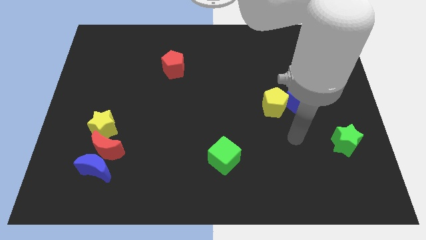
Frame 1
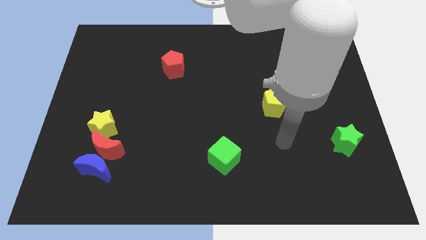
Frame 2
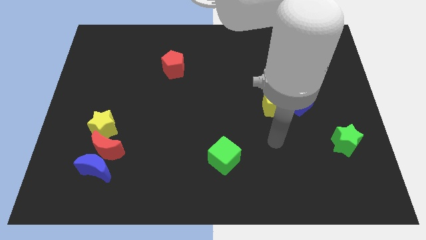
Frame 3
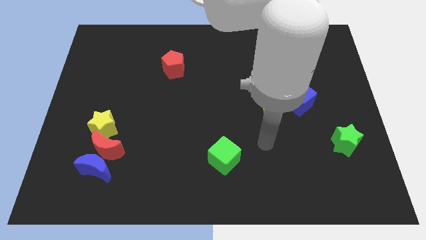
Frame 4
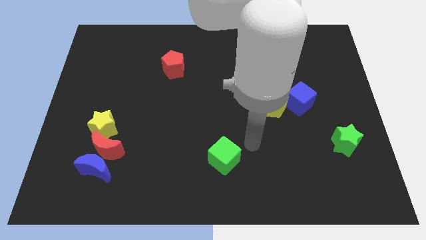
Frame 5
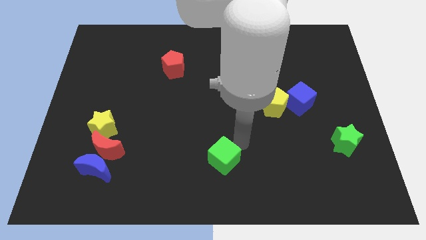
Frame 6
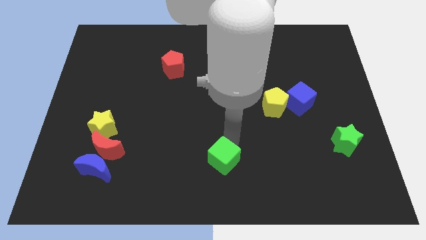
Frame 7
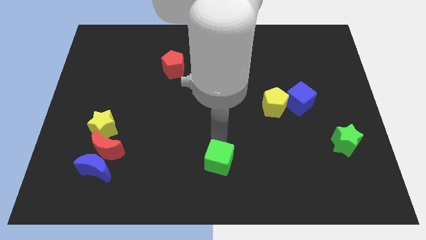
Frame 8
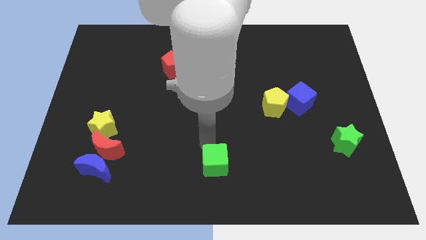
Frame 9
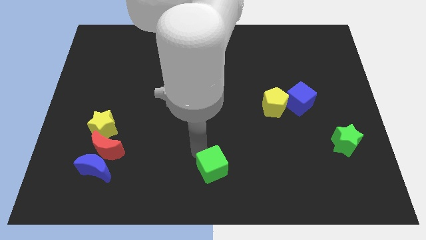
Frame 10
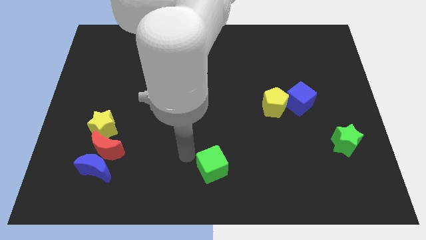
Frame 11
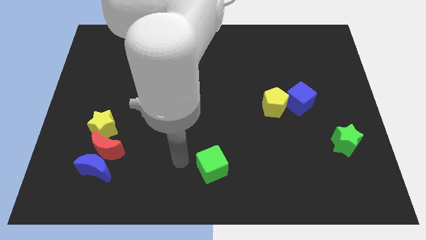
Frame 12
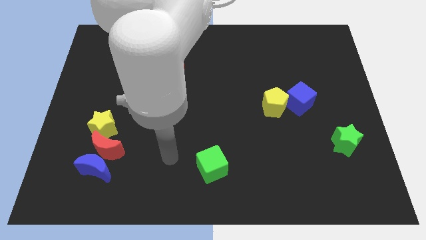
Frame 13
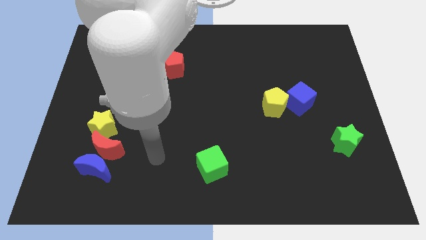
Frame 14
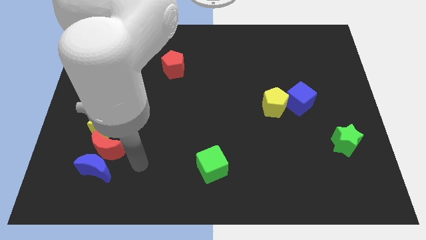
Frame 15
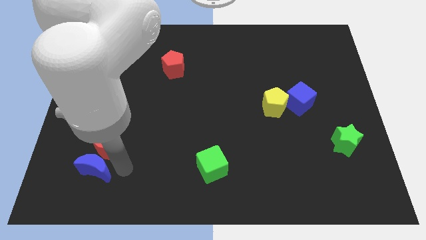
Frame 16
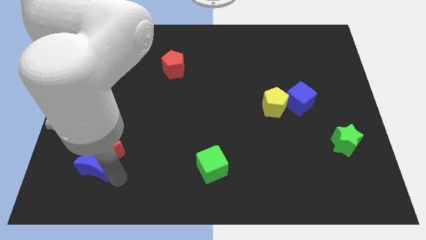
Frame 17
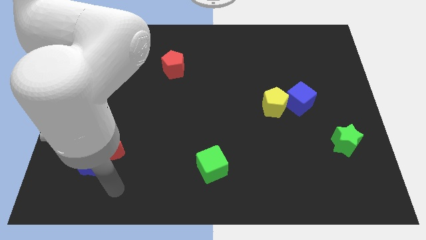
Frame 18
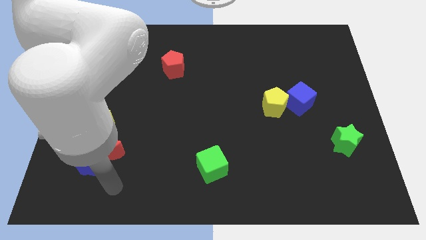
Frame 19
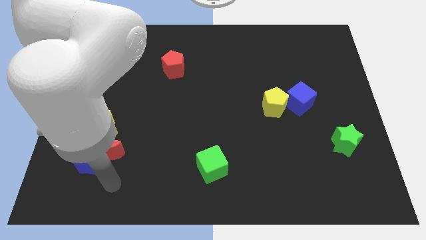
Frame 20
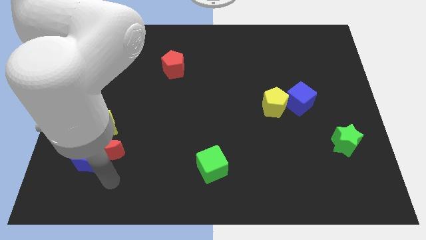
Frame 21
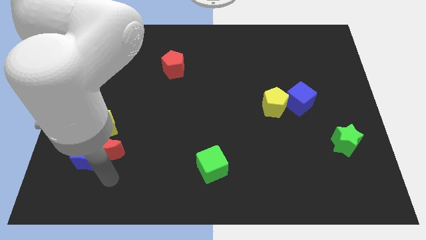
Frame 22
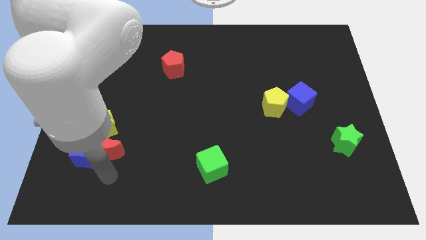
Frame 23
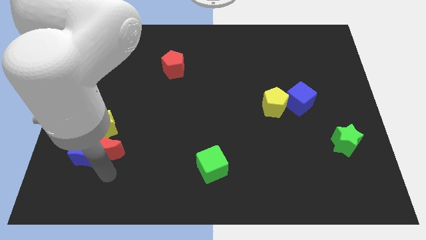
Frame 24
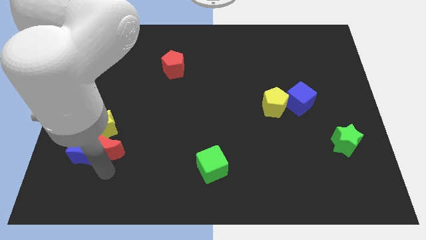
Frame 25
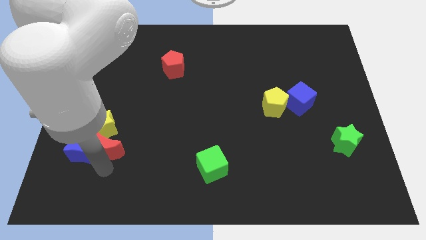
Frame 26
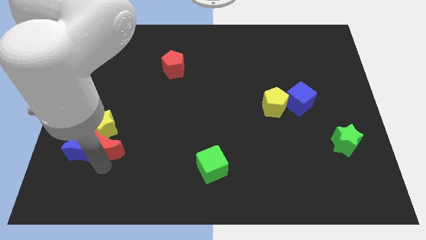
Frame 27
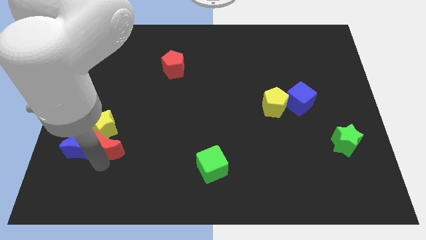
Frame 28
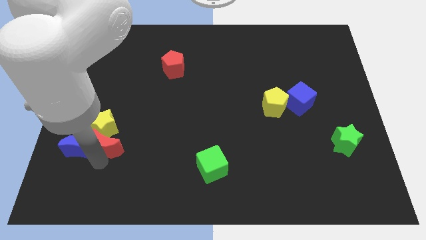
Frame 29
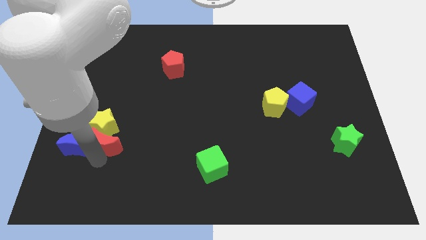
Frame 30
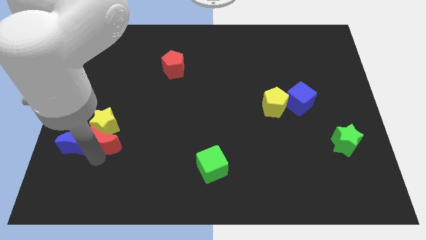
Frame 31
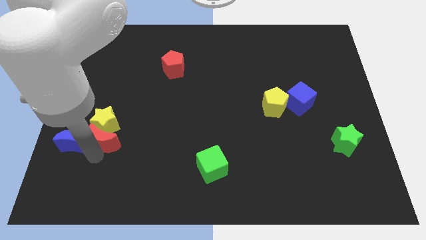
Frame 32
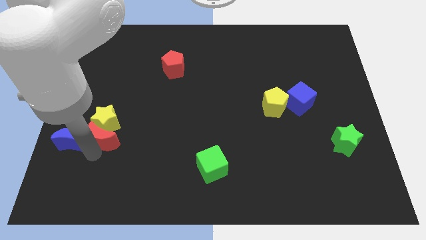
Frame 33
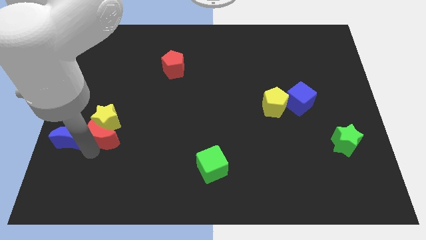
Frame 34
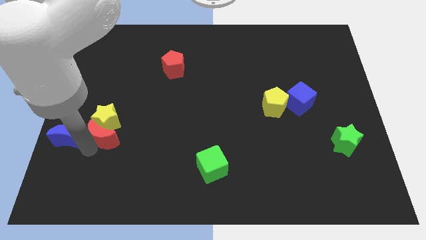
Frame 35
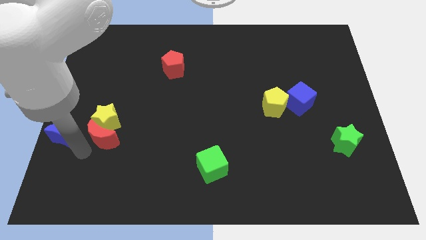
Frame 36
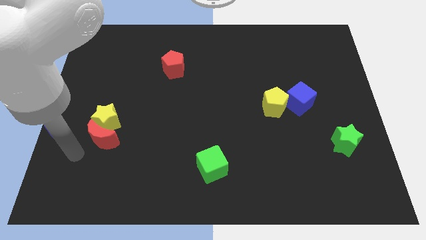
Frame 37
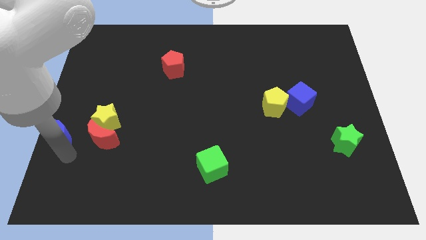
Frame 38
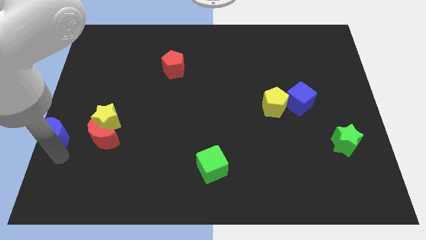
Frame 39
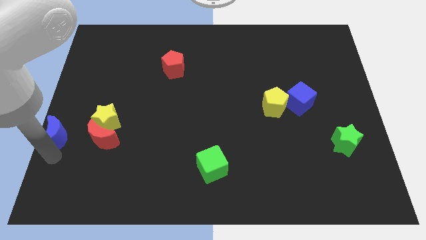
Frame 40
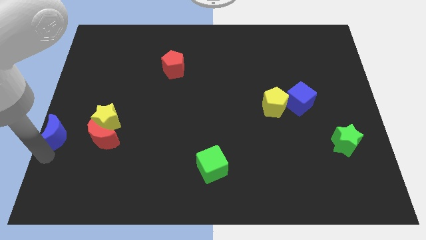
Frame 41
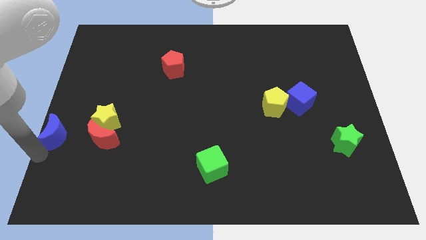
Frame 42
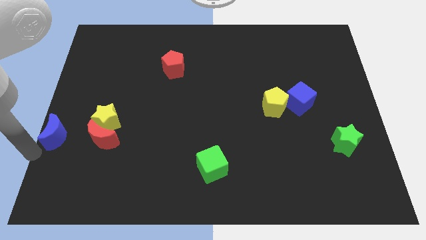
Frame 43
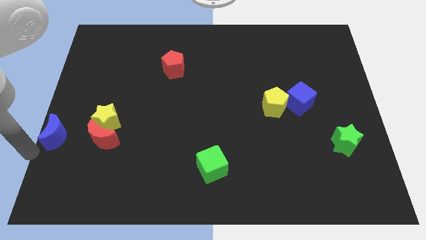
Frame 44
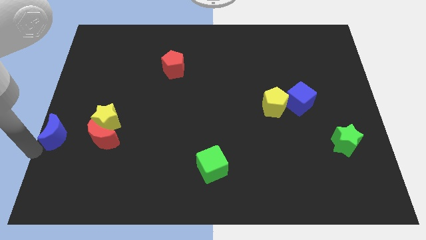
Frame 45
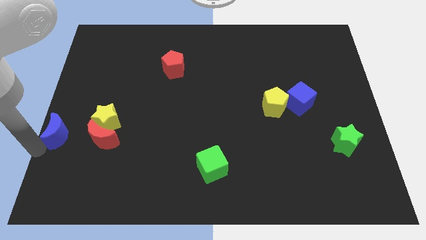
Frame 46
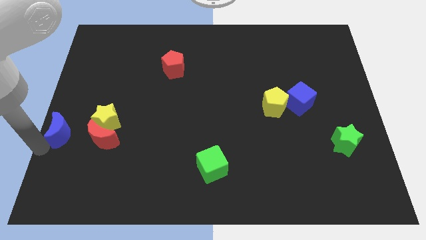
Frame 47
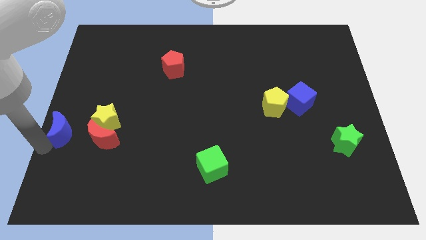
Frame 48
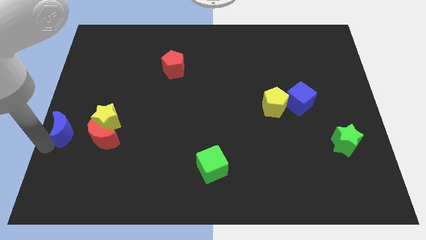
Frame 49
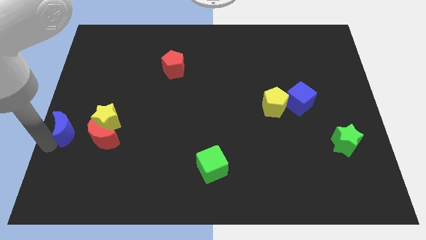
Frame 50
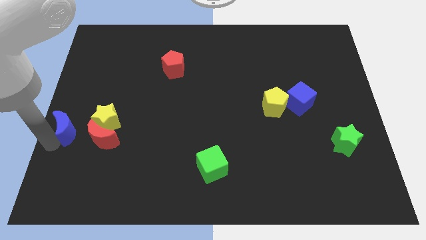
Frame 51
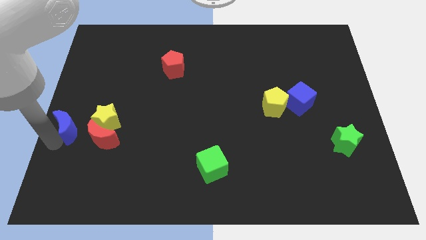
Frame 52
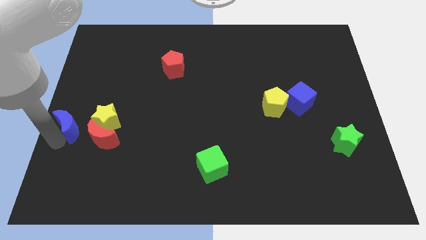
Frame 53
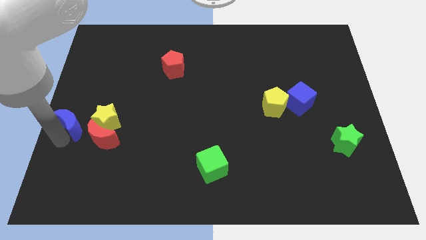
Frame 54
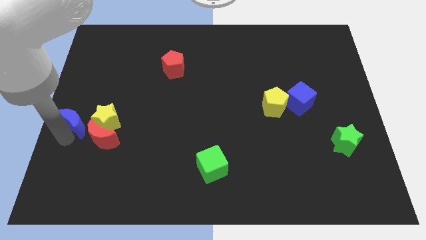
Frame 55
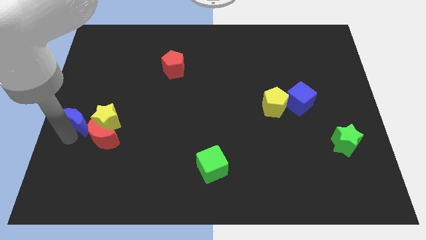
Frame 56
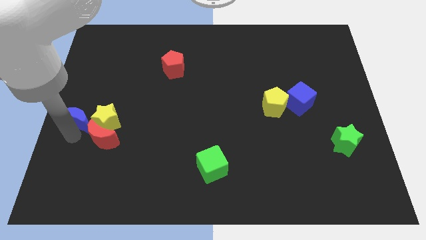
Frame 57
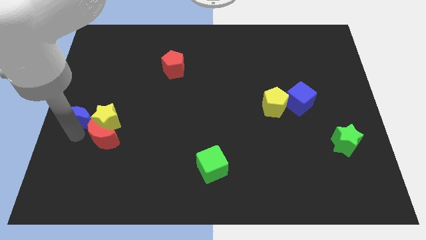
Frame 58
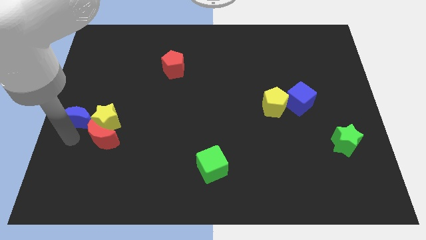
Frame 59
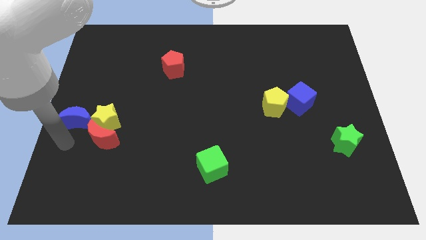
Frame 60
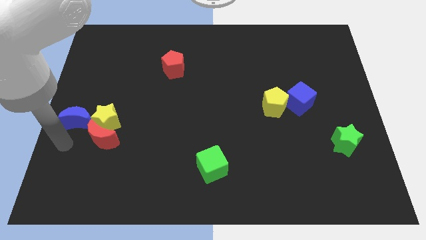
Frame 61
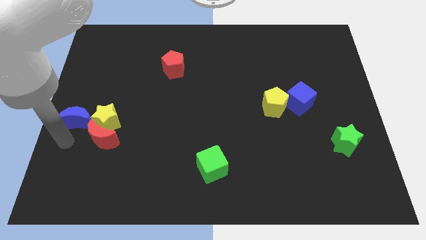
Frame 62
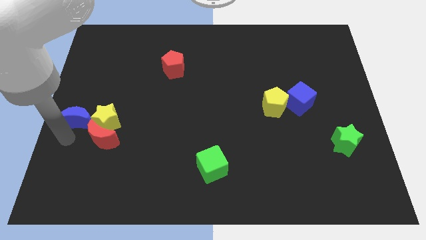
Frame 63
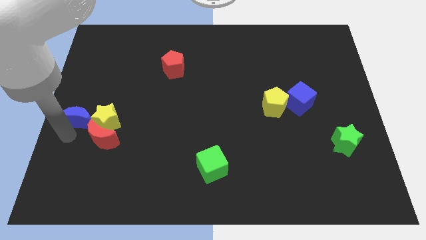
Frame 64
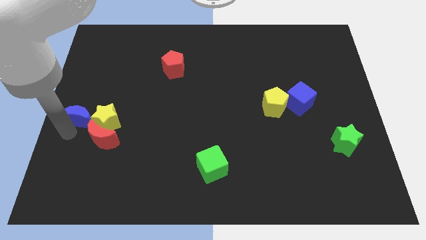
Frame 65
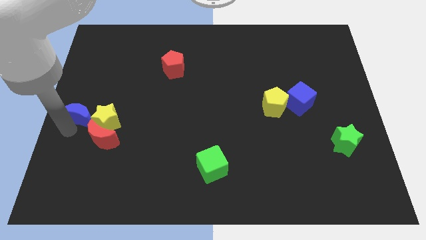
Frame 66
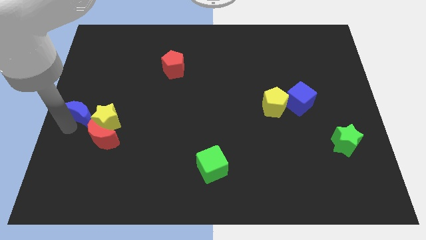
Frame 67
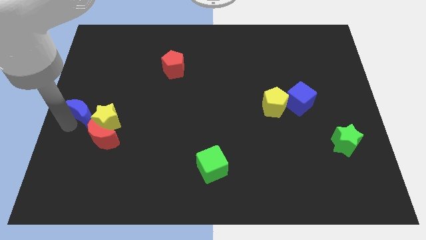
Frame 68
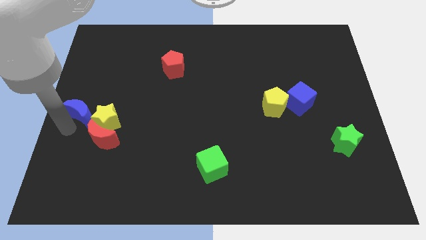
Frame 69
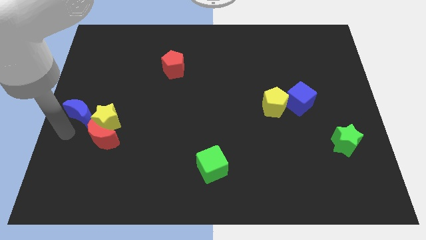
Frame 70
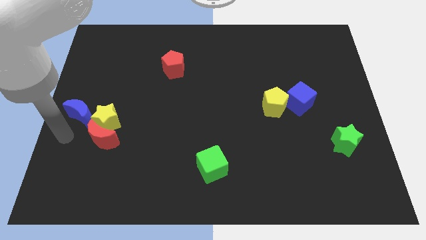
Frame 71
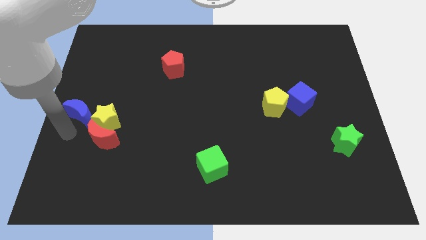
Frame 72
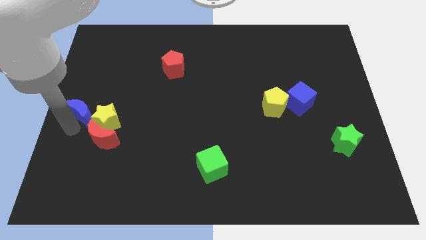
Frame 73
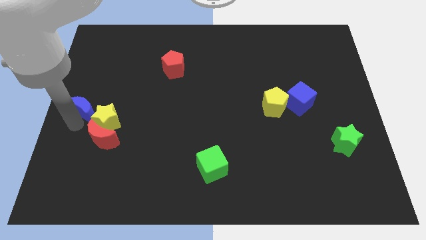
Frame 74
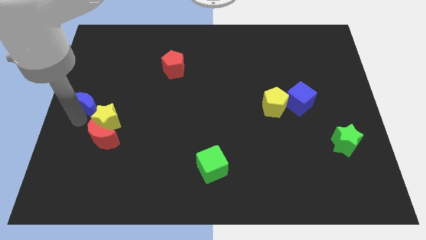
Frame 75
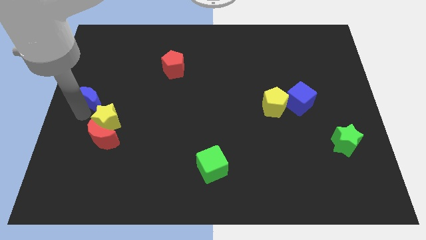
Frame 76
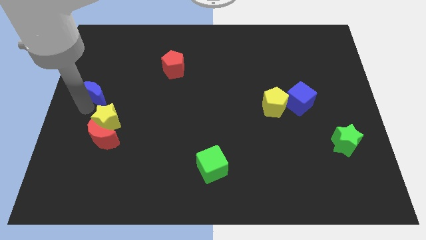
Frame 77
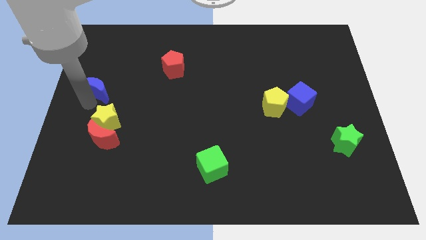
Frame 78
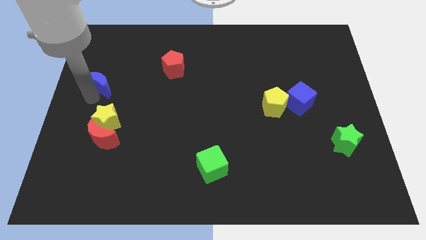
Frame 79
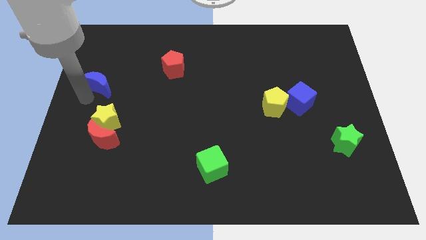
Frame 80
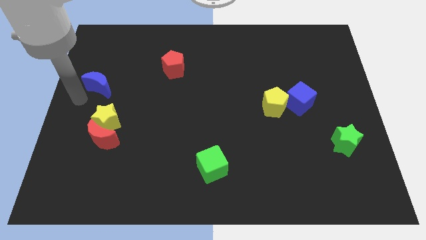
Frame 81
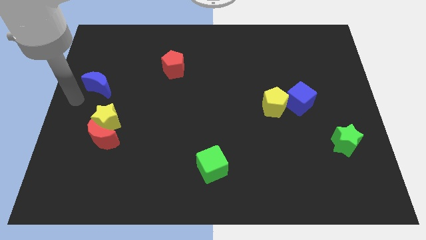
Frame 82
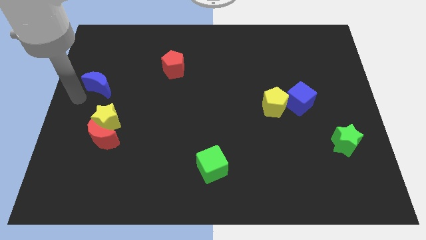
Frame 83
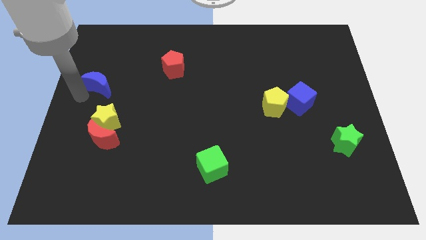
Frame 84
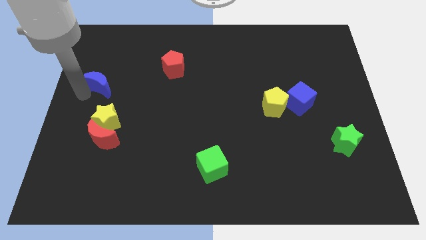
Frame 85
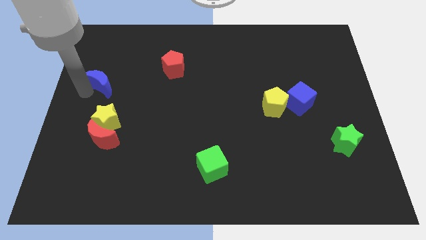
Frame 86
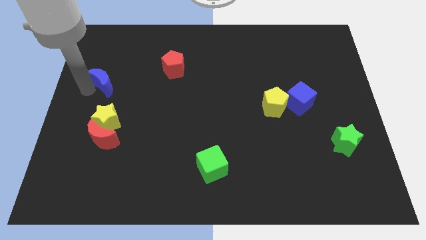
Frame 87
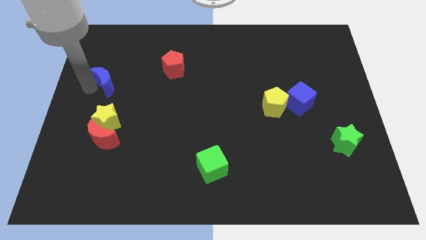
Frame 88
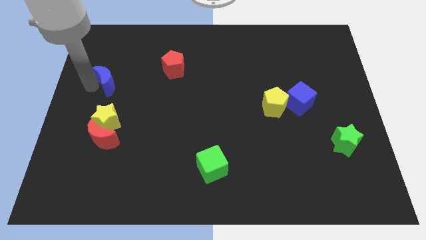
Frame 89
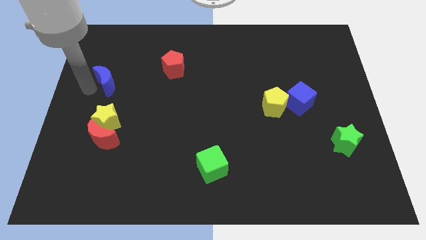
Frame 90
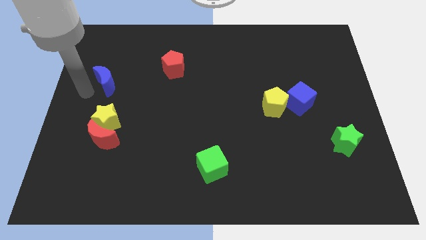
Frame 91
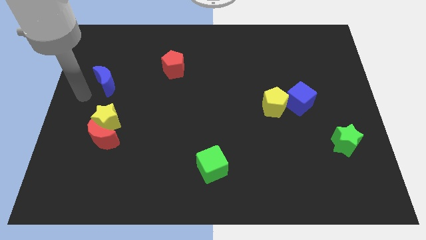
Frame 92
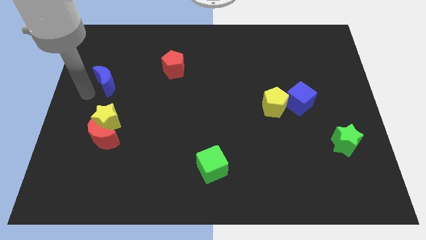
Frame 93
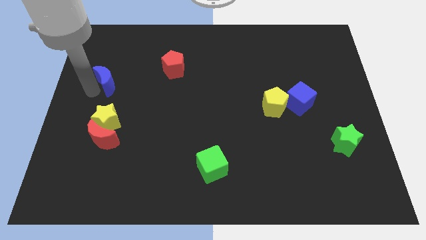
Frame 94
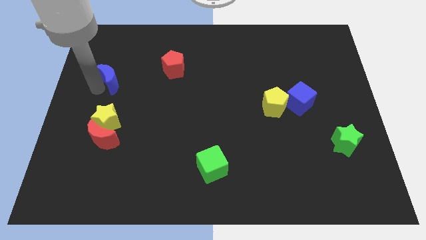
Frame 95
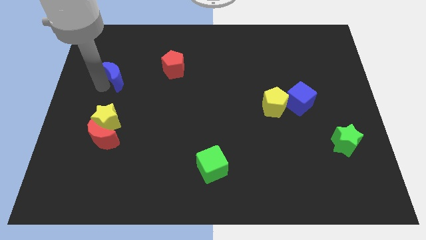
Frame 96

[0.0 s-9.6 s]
put the blue moon to the left of the red pentagon
